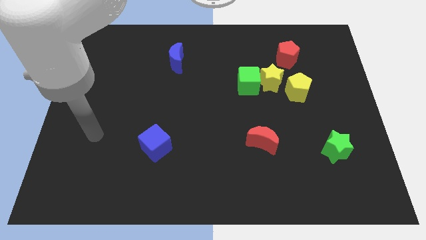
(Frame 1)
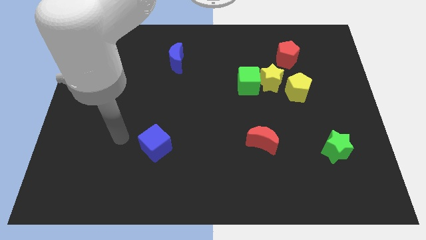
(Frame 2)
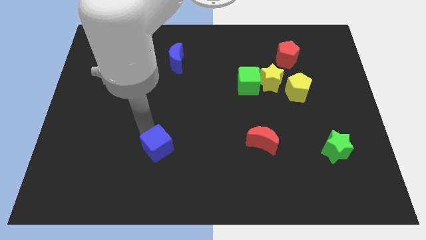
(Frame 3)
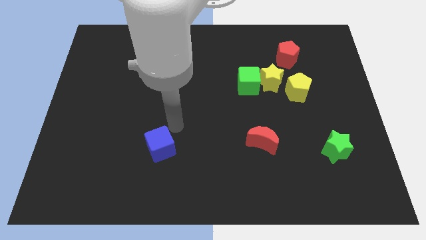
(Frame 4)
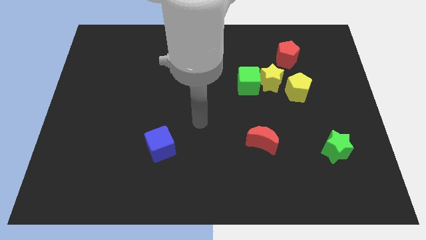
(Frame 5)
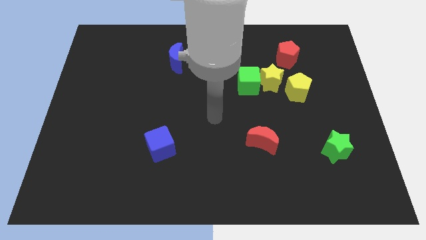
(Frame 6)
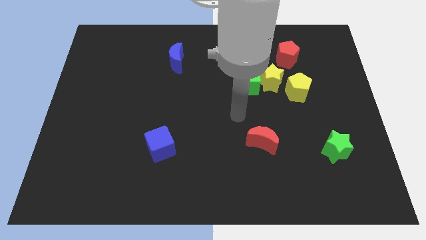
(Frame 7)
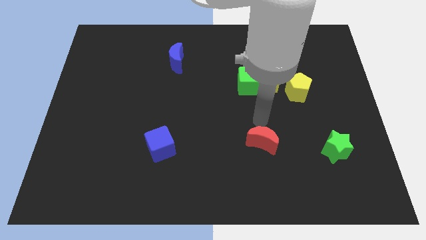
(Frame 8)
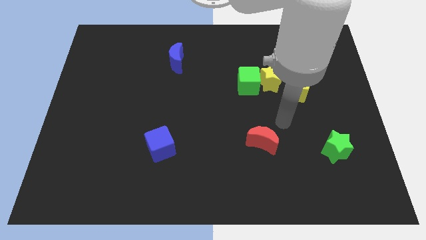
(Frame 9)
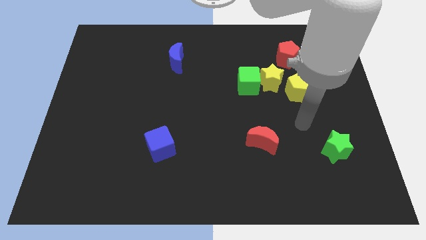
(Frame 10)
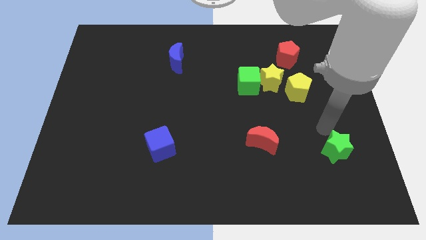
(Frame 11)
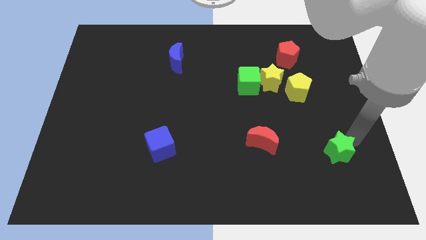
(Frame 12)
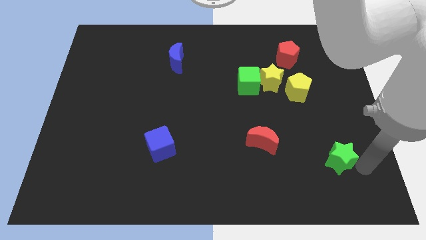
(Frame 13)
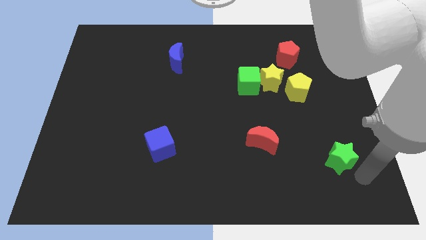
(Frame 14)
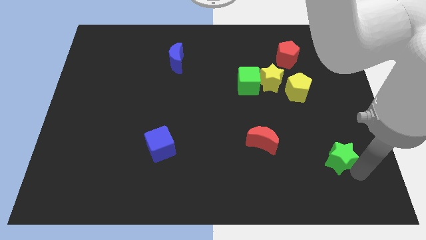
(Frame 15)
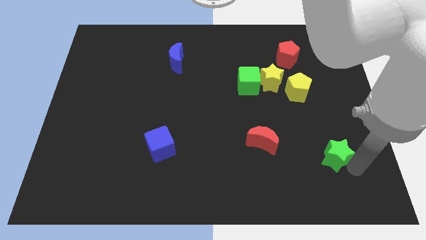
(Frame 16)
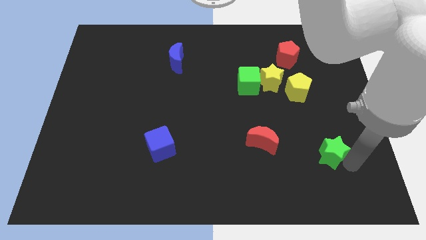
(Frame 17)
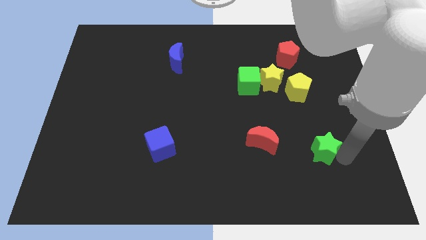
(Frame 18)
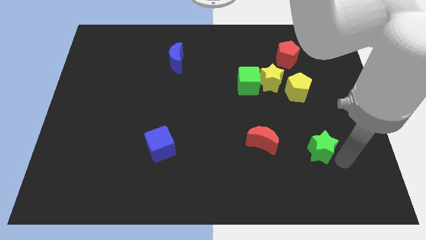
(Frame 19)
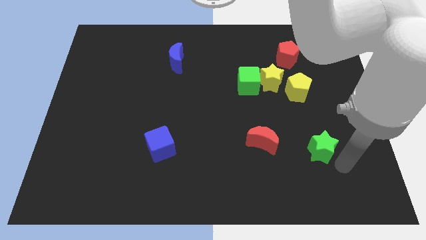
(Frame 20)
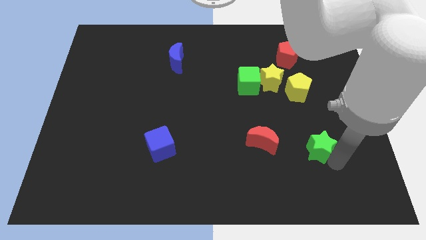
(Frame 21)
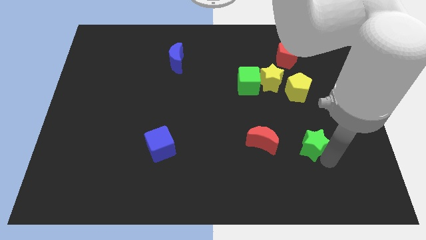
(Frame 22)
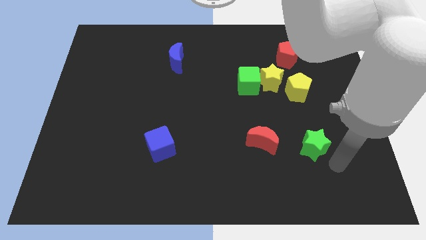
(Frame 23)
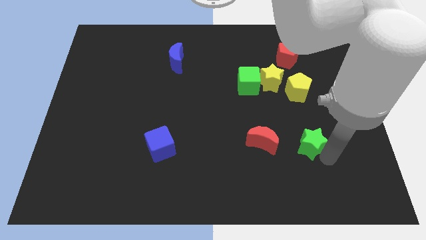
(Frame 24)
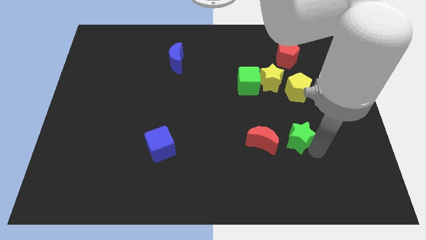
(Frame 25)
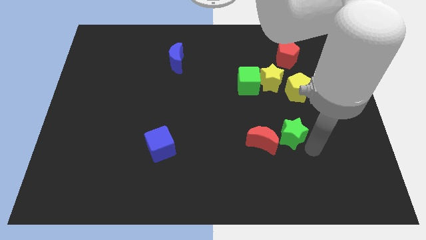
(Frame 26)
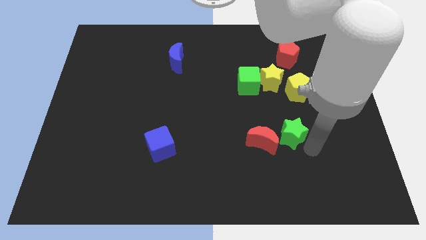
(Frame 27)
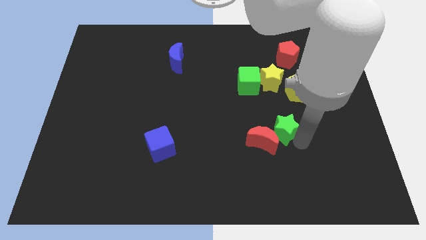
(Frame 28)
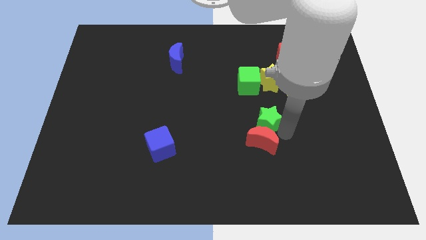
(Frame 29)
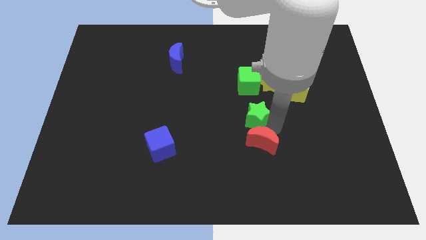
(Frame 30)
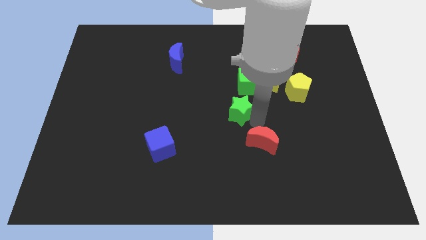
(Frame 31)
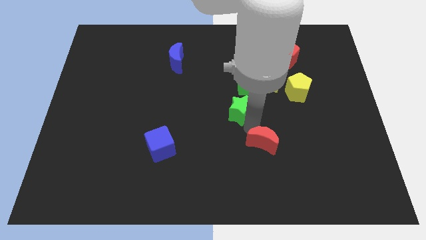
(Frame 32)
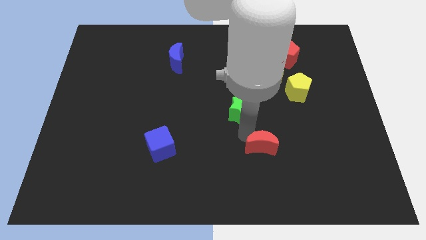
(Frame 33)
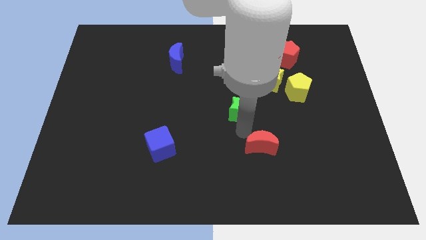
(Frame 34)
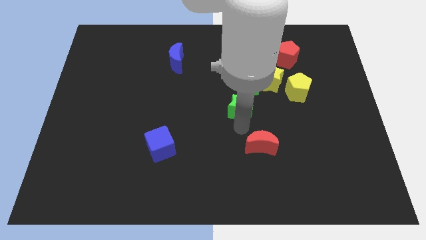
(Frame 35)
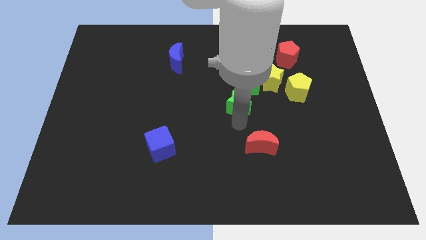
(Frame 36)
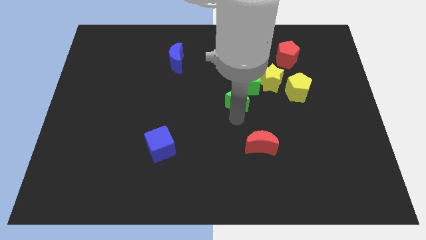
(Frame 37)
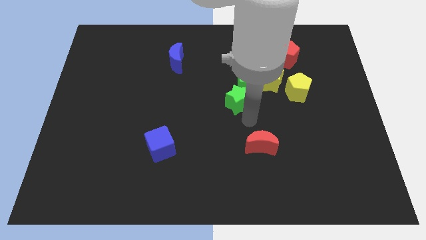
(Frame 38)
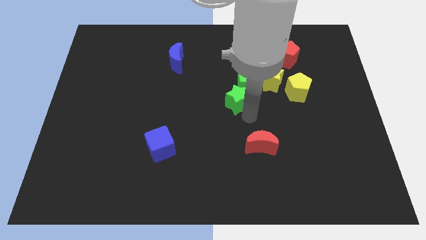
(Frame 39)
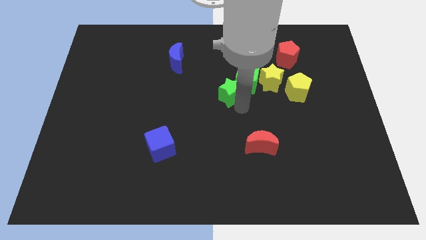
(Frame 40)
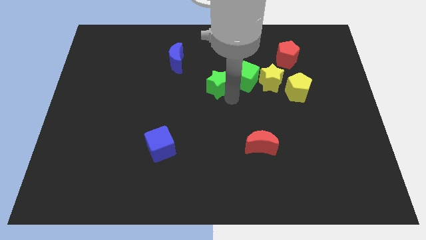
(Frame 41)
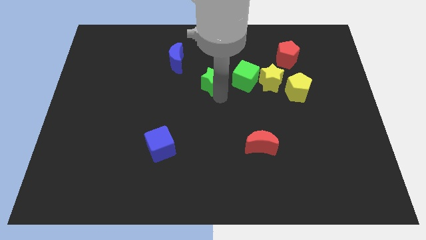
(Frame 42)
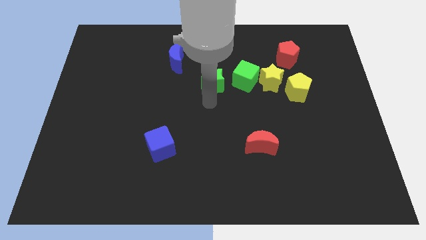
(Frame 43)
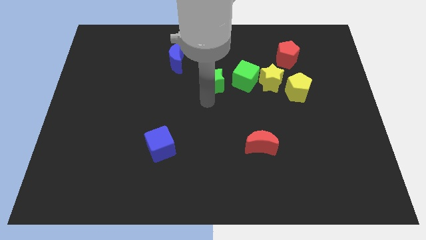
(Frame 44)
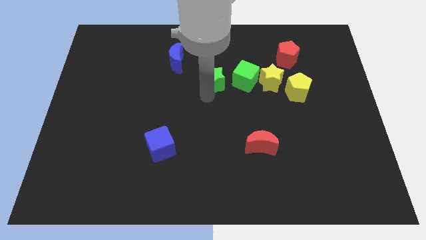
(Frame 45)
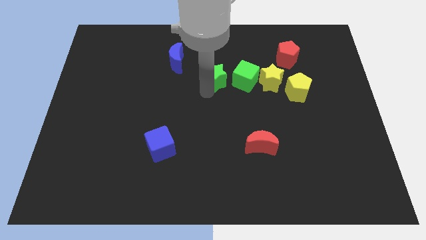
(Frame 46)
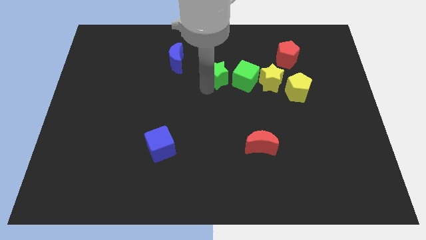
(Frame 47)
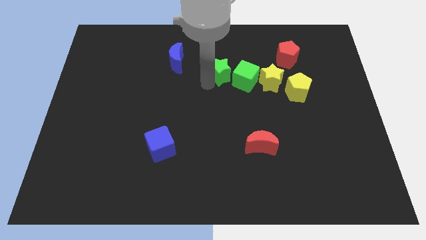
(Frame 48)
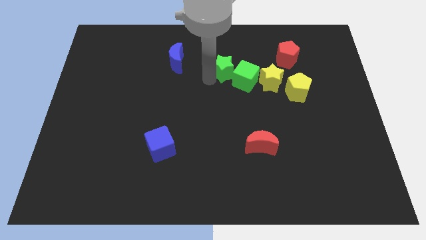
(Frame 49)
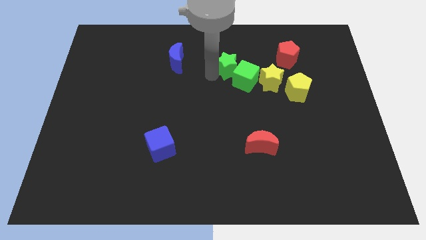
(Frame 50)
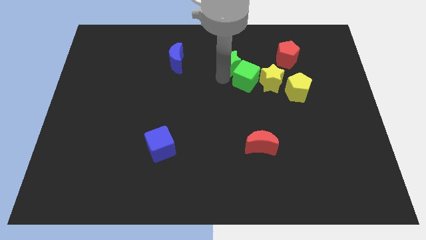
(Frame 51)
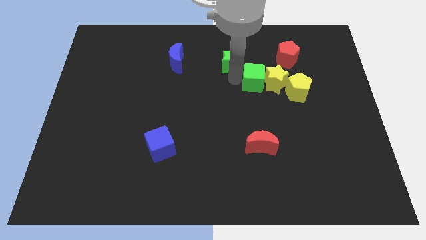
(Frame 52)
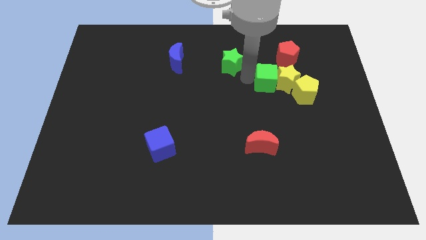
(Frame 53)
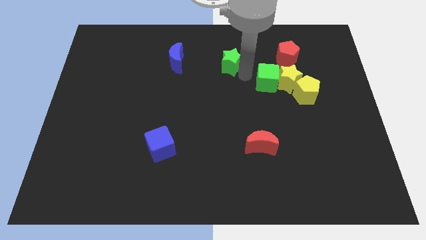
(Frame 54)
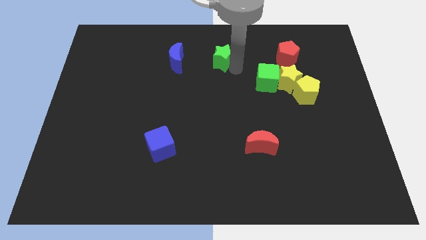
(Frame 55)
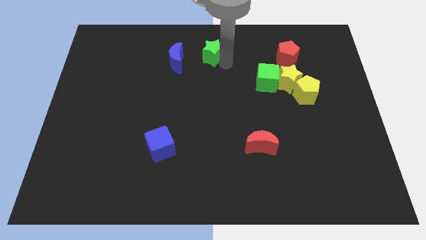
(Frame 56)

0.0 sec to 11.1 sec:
put the green star to the top

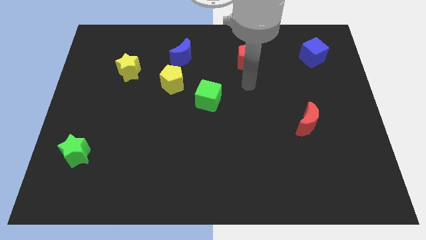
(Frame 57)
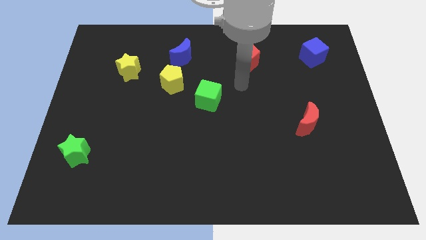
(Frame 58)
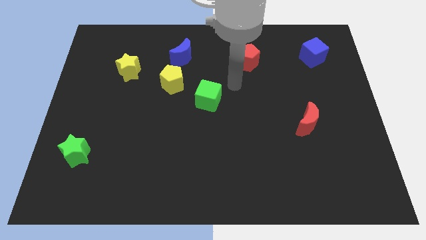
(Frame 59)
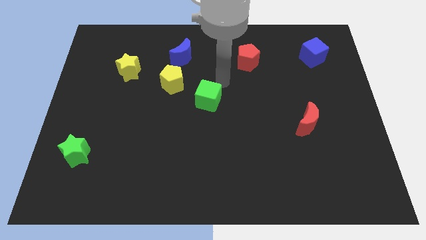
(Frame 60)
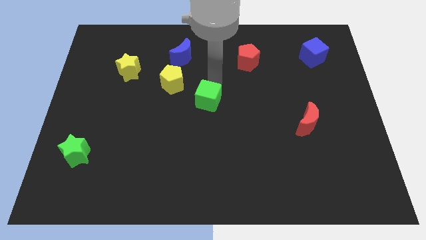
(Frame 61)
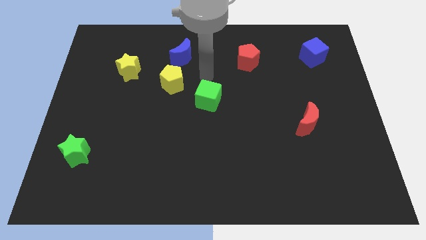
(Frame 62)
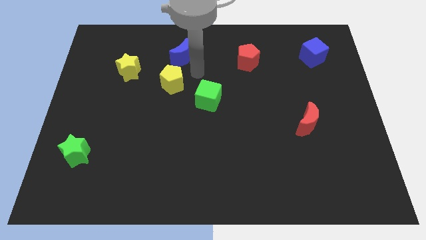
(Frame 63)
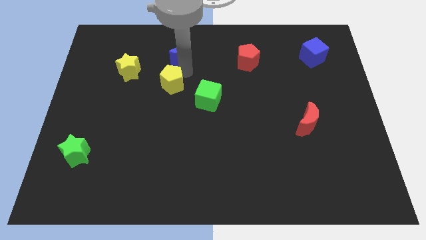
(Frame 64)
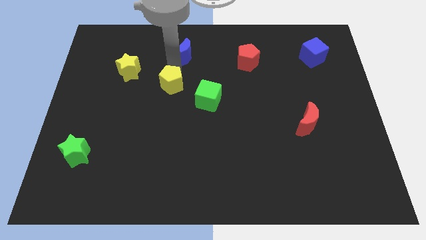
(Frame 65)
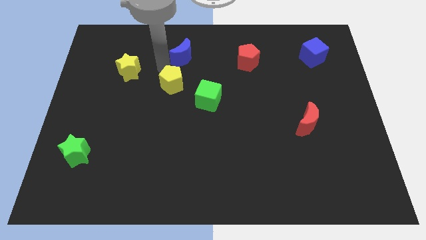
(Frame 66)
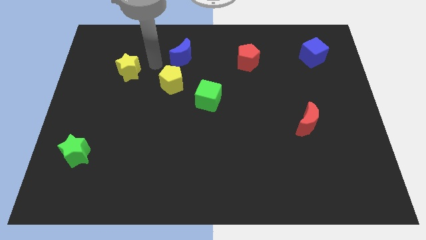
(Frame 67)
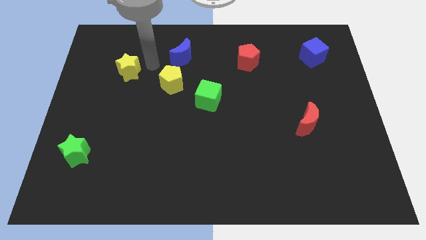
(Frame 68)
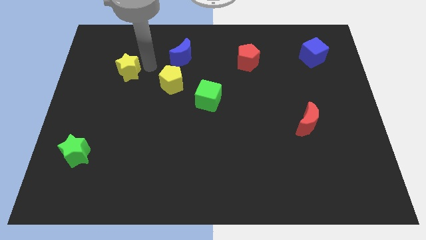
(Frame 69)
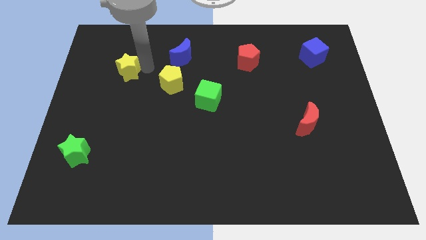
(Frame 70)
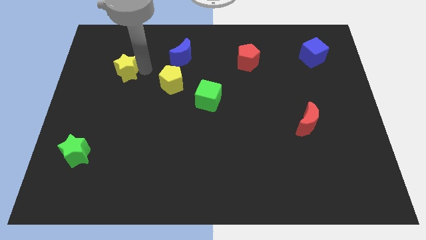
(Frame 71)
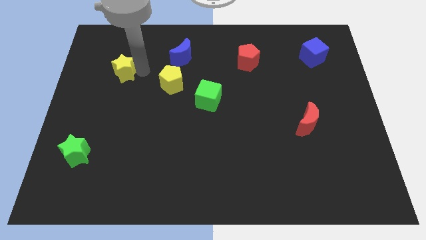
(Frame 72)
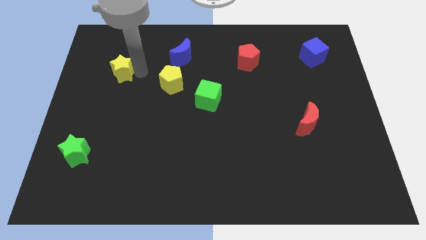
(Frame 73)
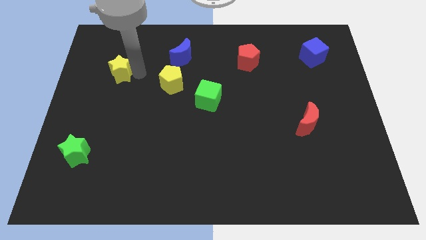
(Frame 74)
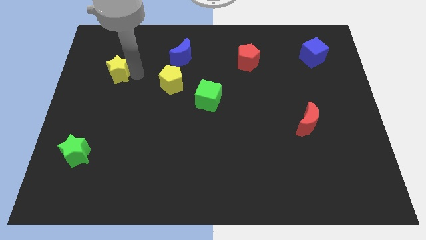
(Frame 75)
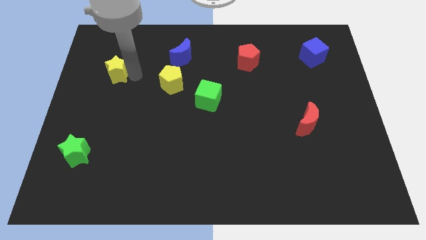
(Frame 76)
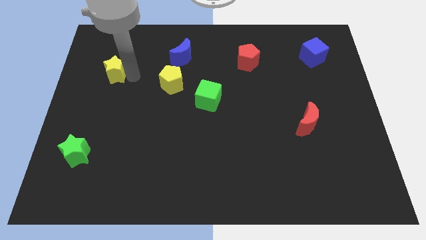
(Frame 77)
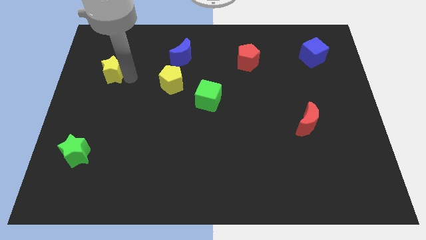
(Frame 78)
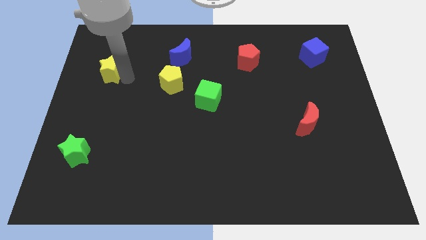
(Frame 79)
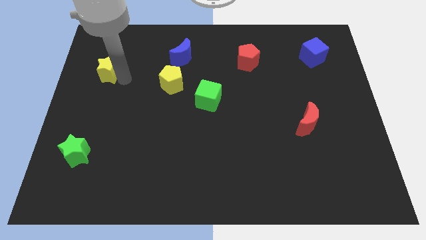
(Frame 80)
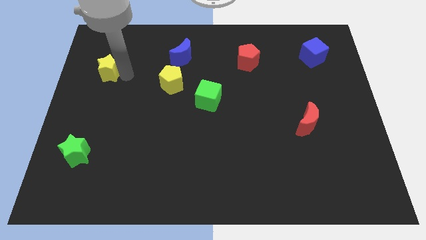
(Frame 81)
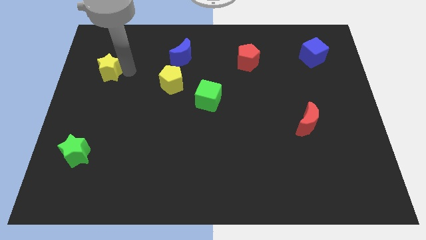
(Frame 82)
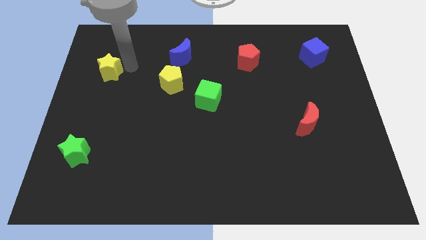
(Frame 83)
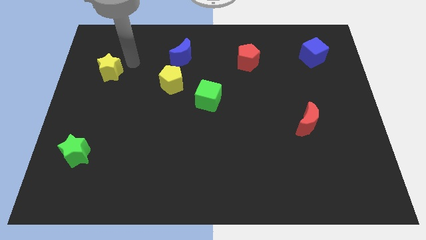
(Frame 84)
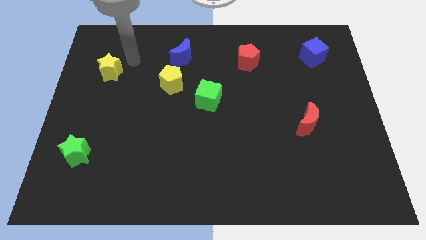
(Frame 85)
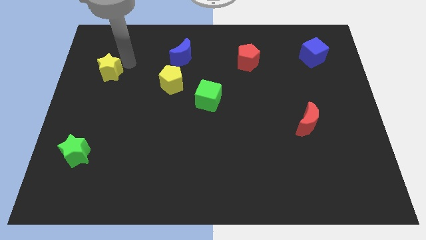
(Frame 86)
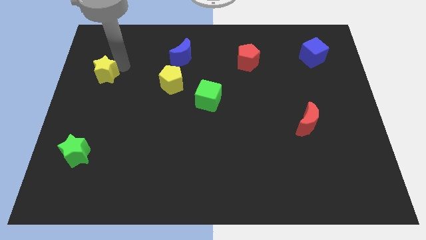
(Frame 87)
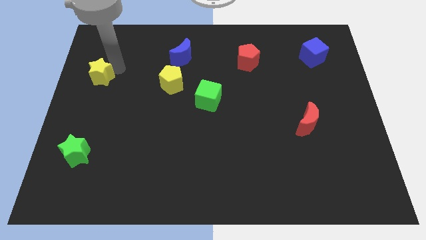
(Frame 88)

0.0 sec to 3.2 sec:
slide the yellow star to the center left
